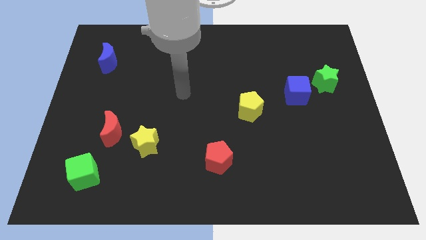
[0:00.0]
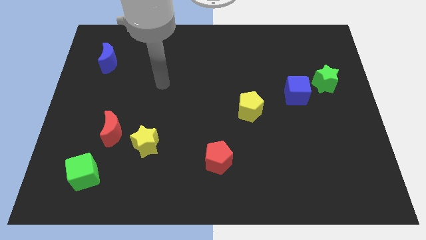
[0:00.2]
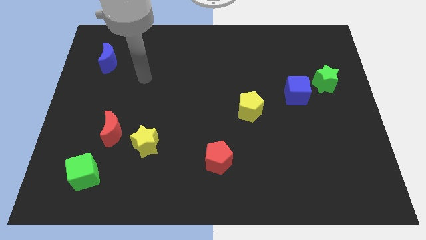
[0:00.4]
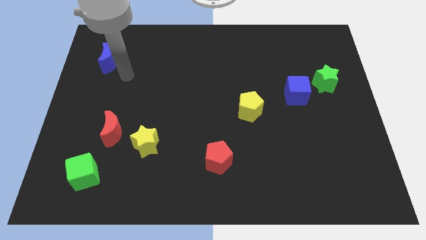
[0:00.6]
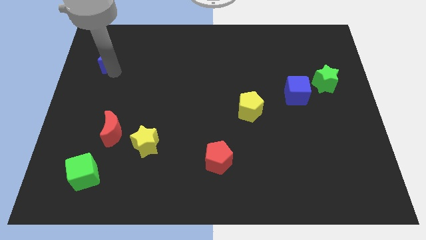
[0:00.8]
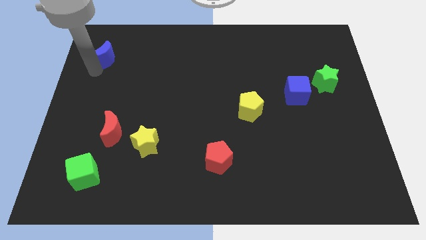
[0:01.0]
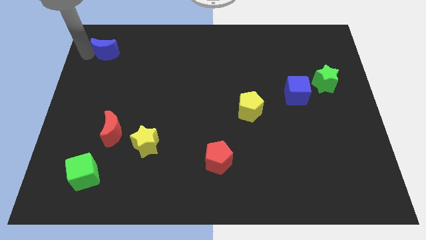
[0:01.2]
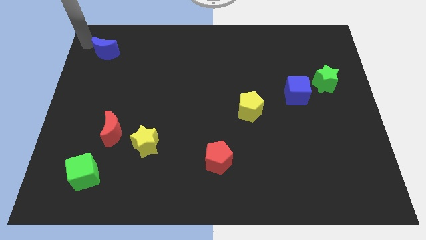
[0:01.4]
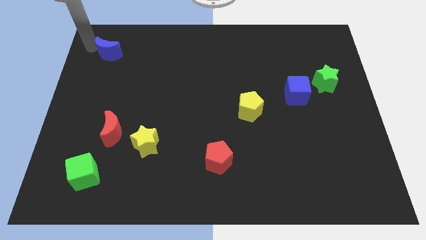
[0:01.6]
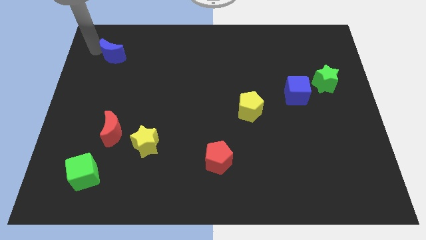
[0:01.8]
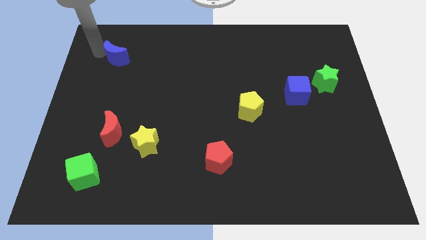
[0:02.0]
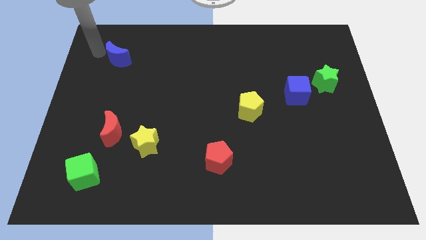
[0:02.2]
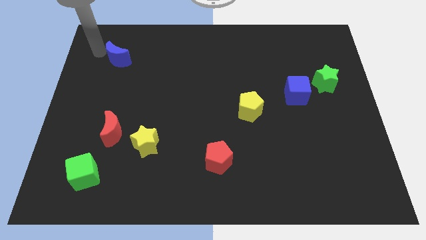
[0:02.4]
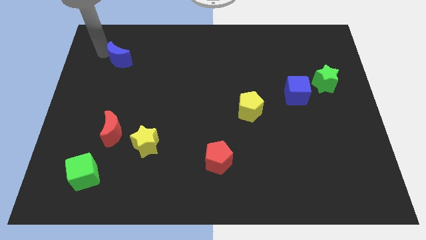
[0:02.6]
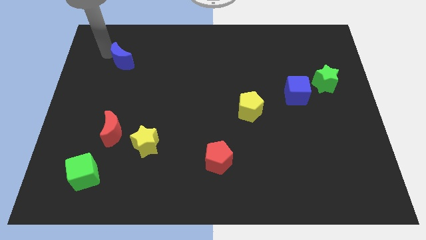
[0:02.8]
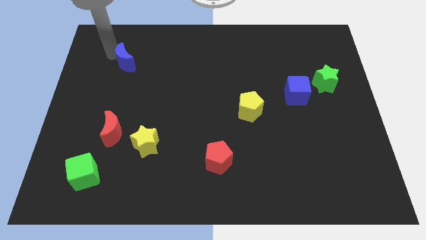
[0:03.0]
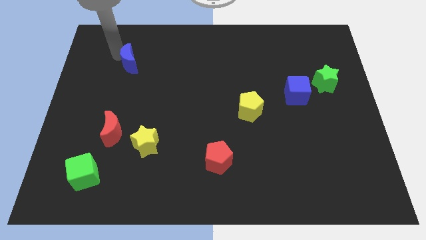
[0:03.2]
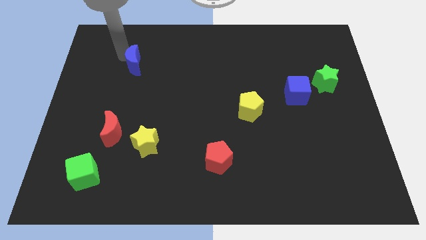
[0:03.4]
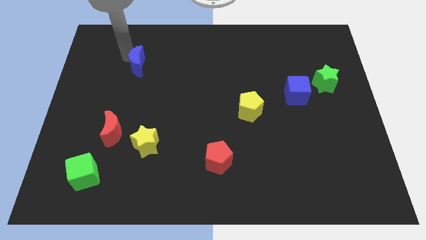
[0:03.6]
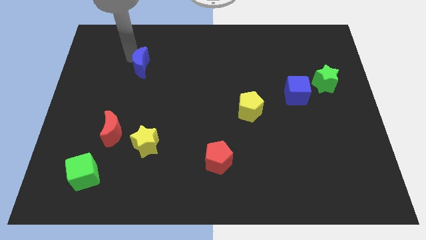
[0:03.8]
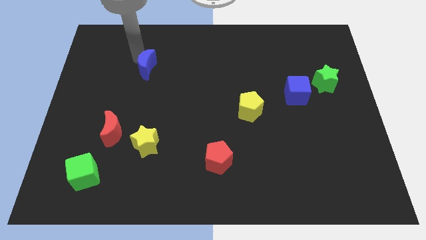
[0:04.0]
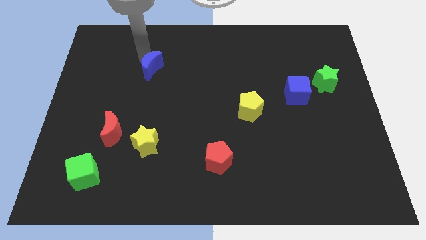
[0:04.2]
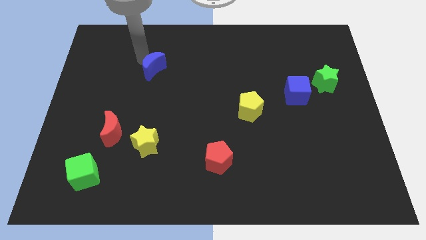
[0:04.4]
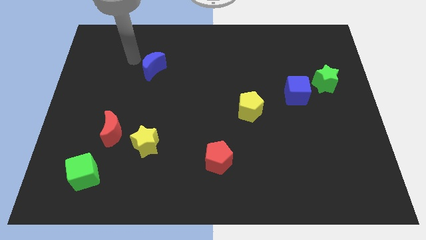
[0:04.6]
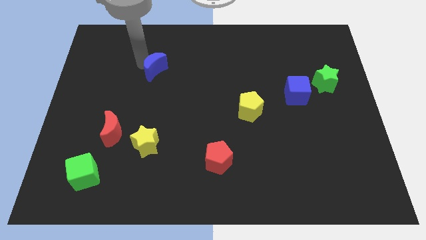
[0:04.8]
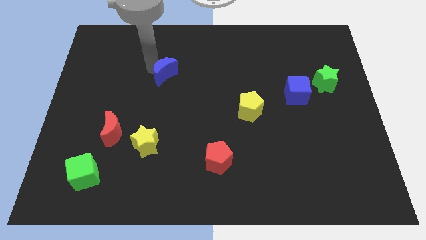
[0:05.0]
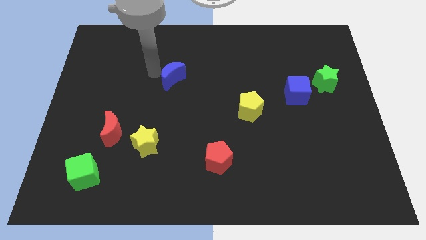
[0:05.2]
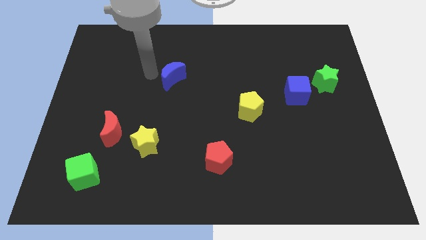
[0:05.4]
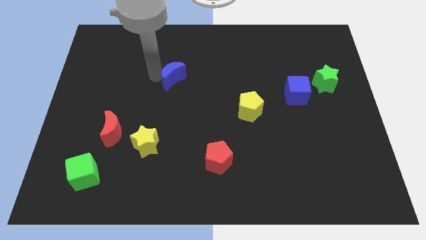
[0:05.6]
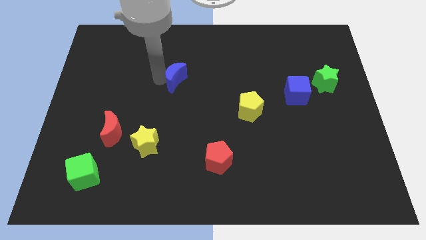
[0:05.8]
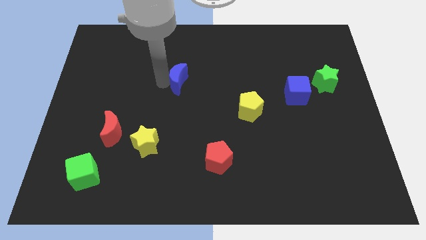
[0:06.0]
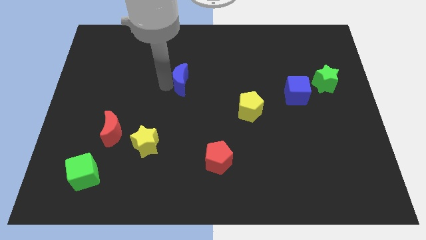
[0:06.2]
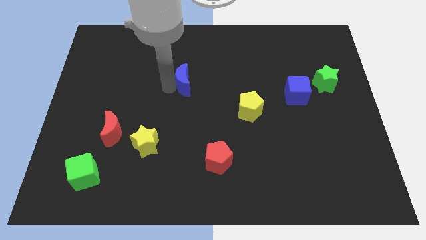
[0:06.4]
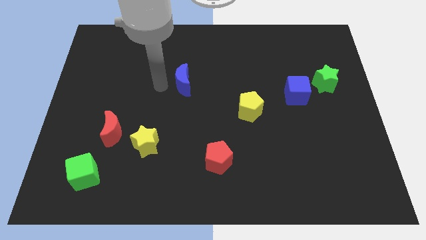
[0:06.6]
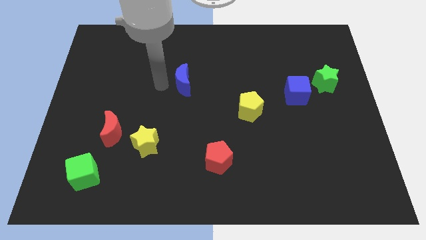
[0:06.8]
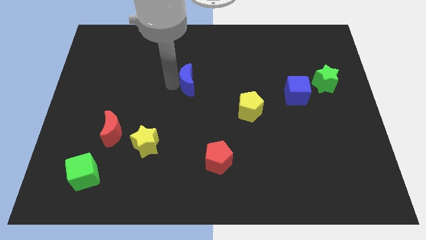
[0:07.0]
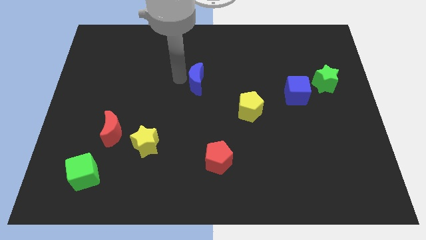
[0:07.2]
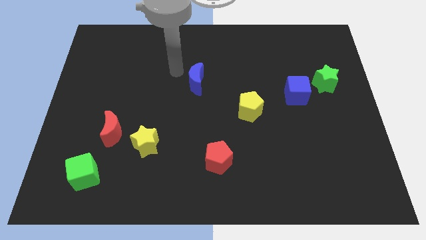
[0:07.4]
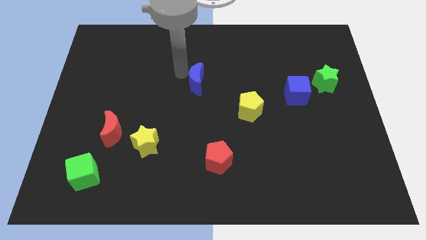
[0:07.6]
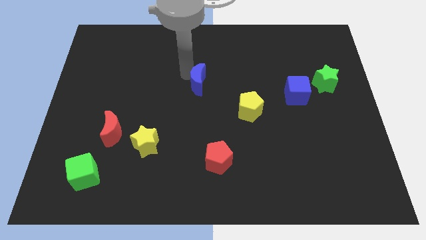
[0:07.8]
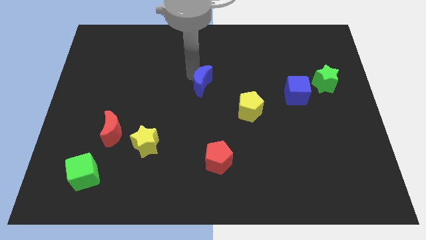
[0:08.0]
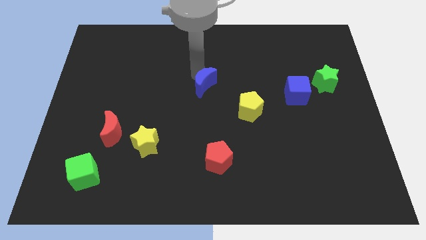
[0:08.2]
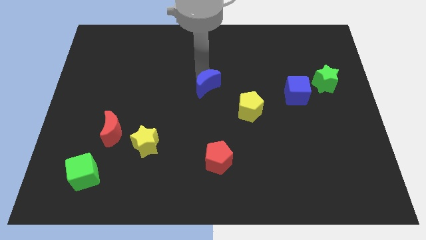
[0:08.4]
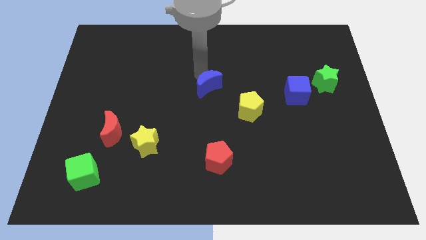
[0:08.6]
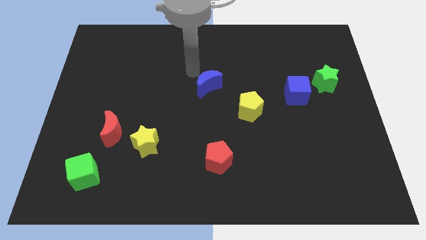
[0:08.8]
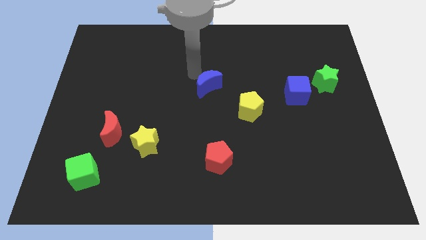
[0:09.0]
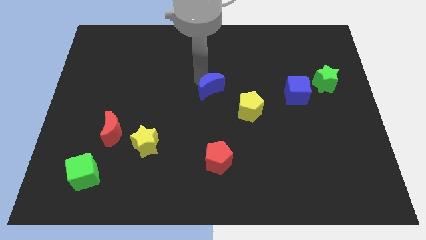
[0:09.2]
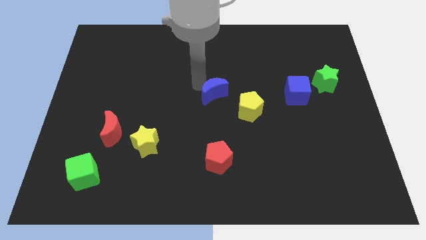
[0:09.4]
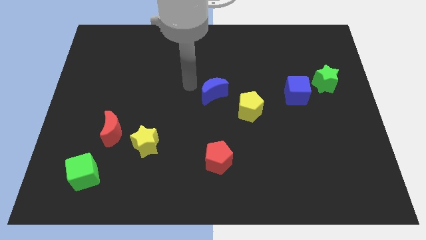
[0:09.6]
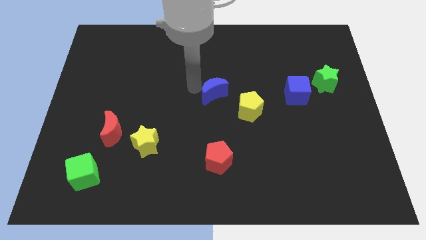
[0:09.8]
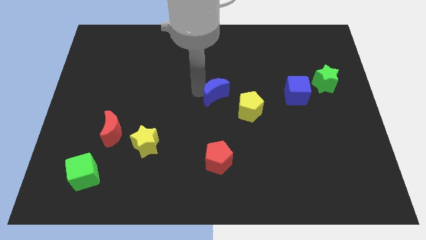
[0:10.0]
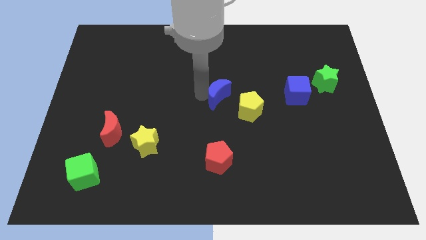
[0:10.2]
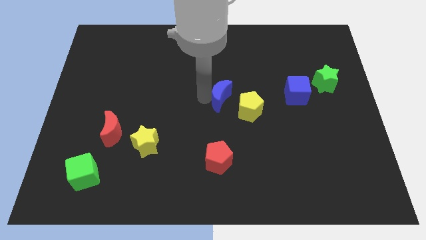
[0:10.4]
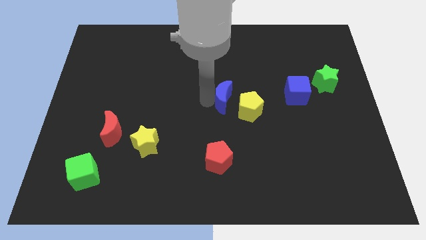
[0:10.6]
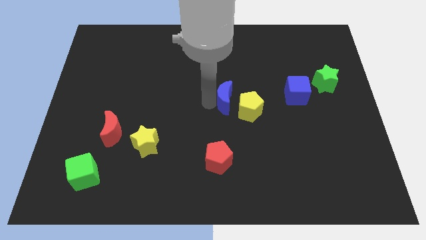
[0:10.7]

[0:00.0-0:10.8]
push the blue moon towards the yellow pentagon

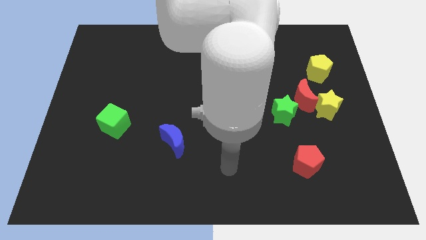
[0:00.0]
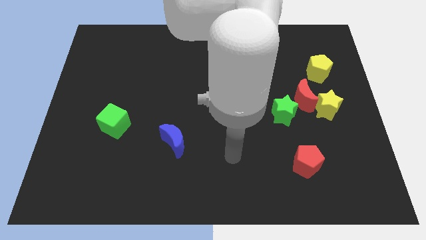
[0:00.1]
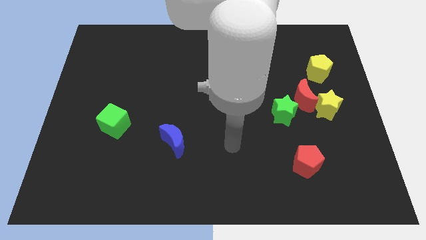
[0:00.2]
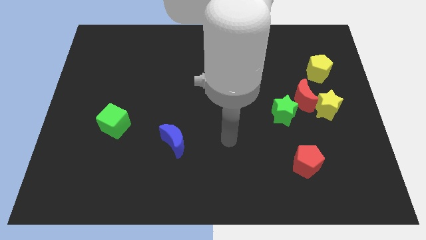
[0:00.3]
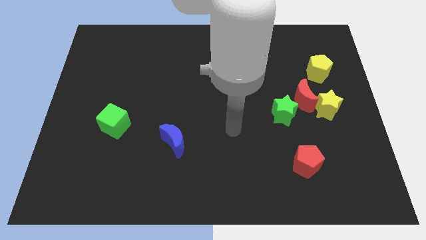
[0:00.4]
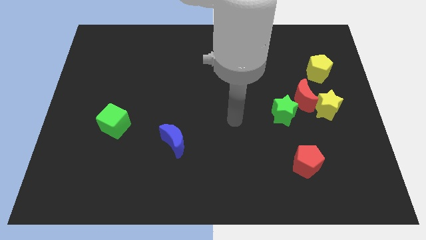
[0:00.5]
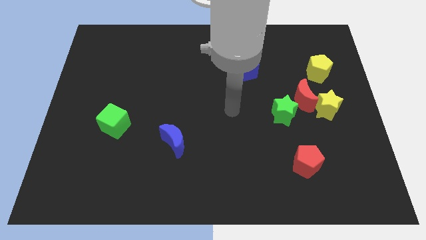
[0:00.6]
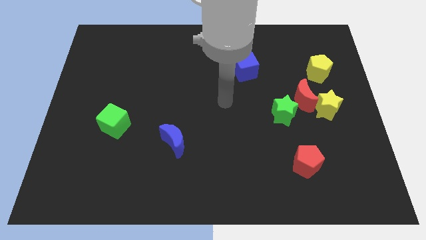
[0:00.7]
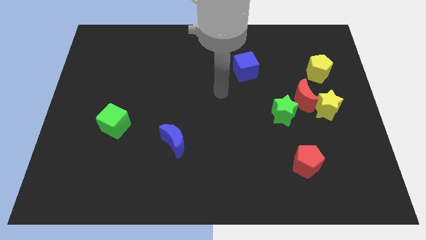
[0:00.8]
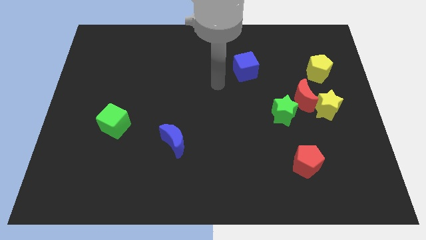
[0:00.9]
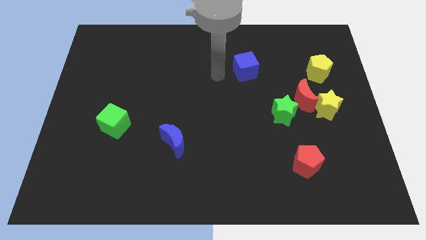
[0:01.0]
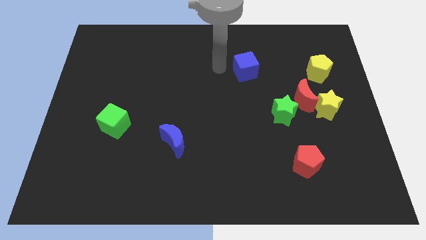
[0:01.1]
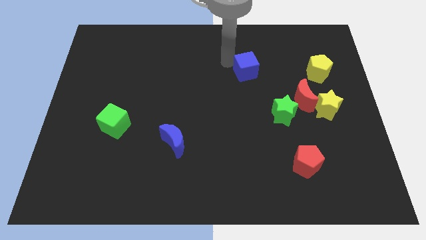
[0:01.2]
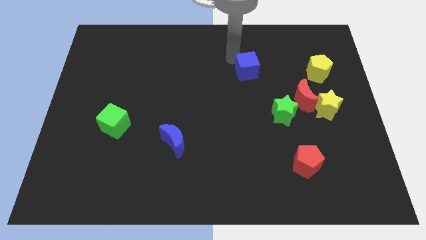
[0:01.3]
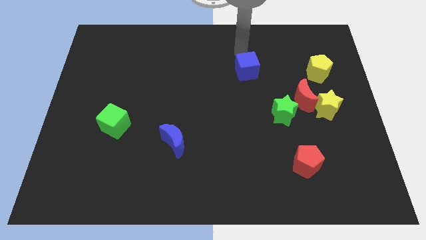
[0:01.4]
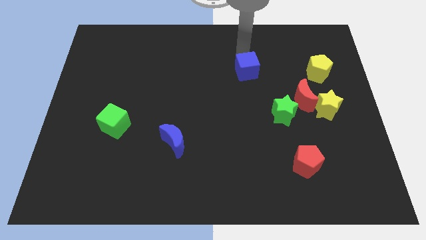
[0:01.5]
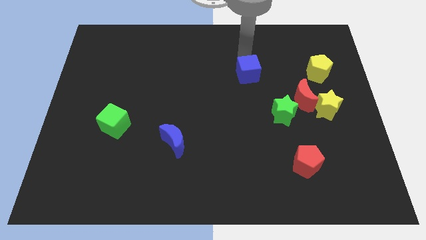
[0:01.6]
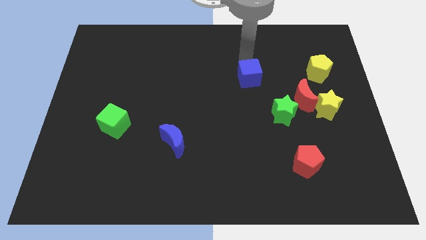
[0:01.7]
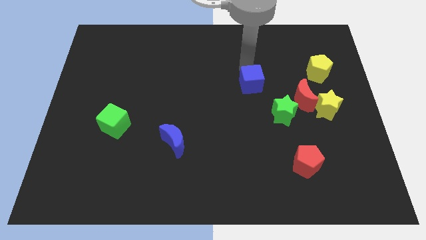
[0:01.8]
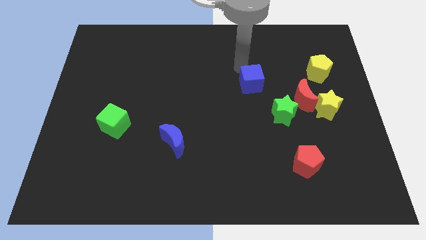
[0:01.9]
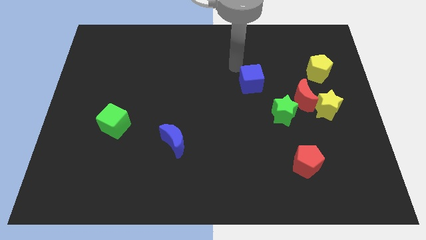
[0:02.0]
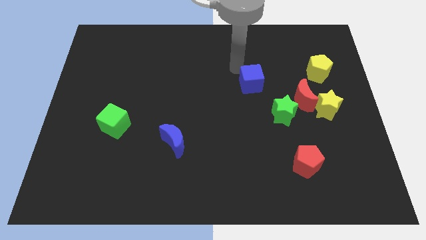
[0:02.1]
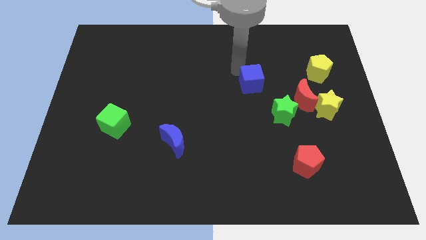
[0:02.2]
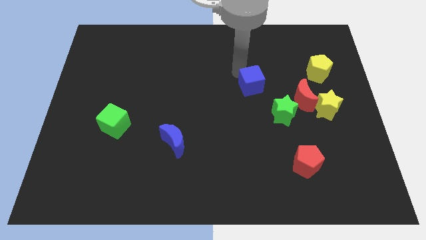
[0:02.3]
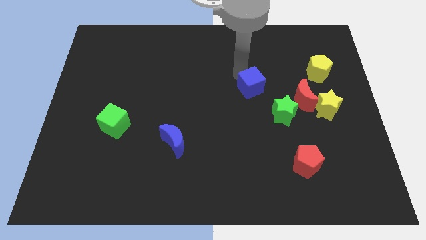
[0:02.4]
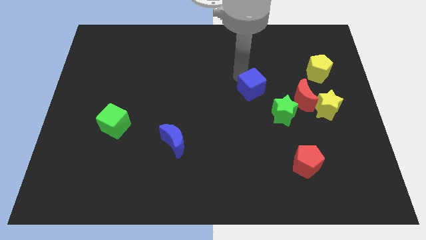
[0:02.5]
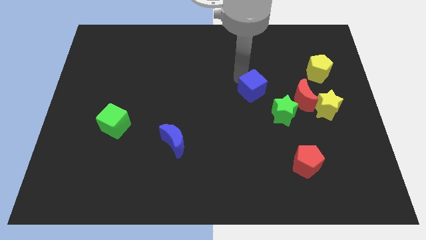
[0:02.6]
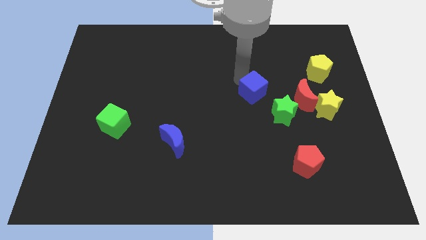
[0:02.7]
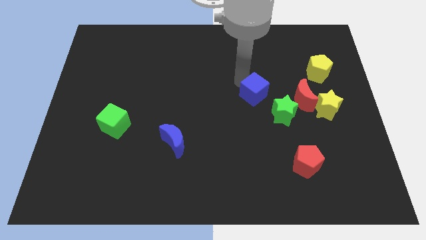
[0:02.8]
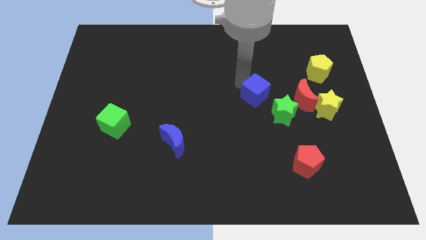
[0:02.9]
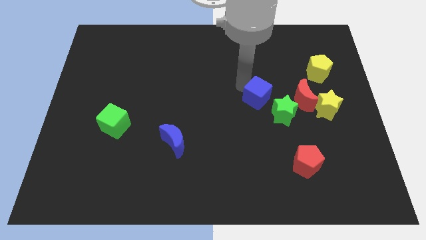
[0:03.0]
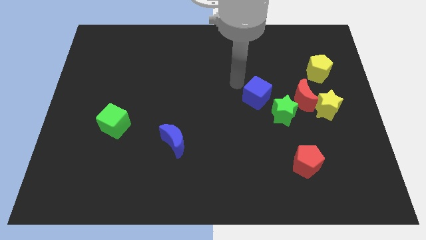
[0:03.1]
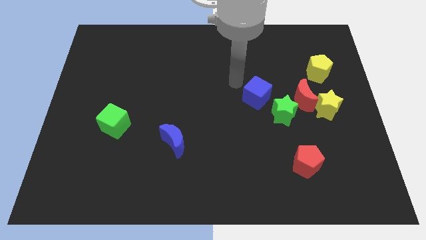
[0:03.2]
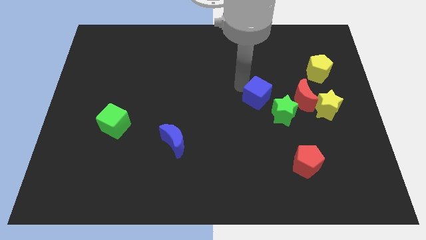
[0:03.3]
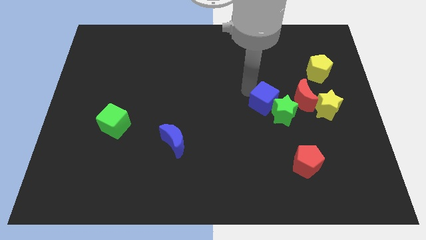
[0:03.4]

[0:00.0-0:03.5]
push the blue cube close to the green star
